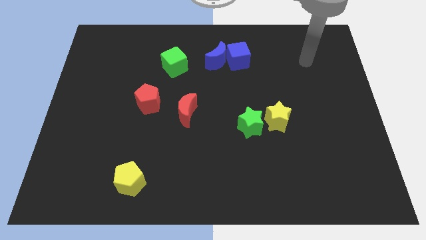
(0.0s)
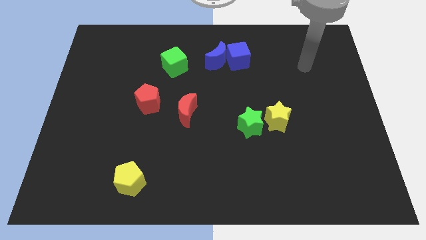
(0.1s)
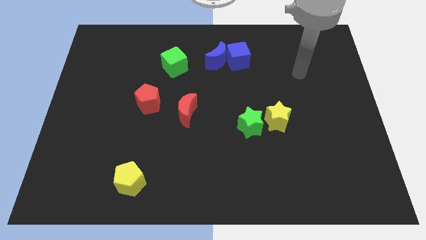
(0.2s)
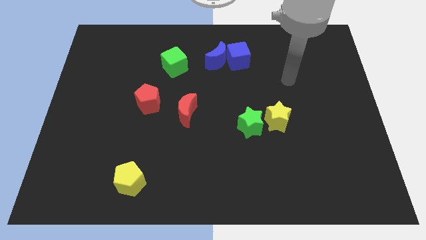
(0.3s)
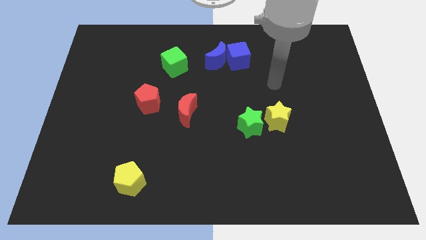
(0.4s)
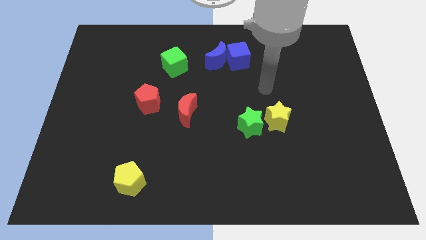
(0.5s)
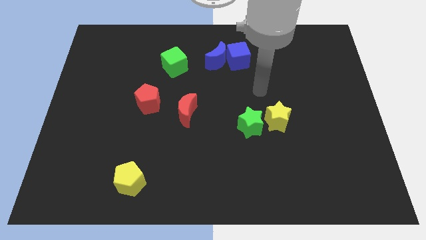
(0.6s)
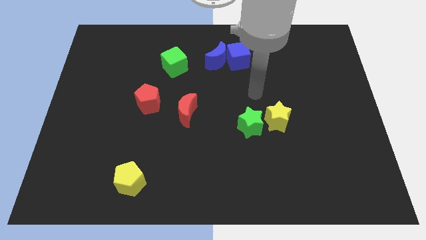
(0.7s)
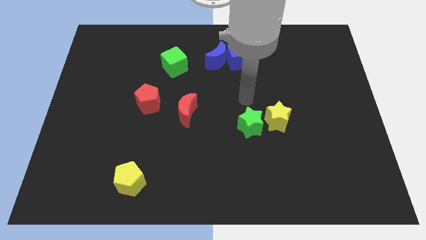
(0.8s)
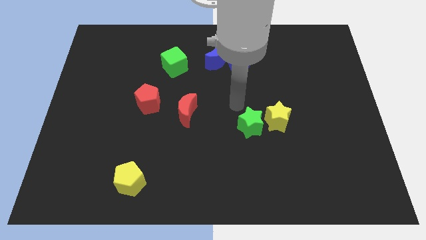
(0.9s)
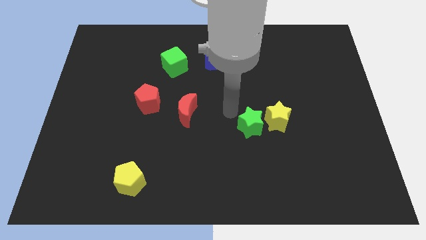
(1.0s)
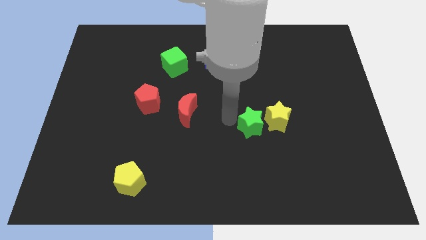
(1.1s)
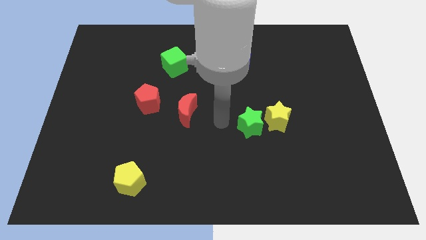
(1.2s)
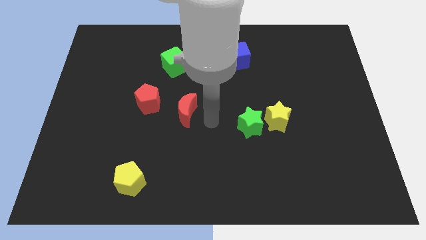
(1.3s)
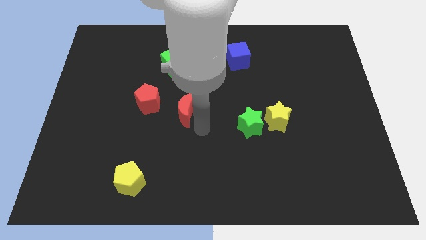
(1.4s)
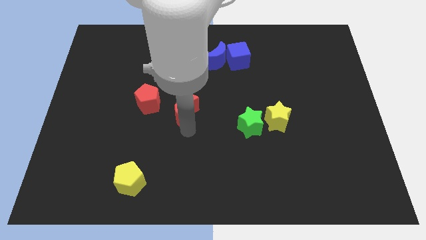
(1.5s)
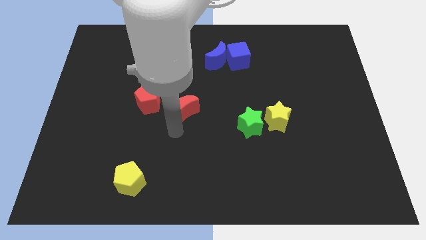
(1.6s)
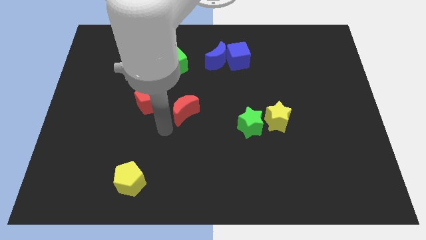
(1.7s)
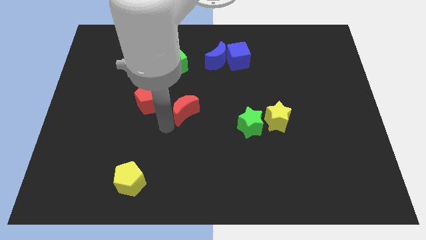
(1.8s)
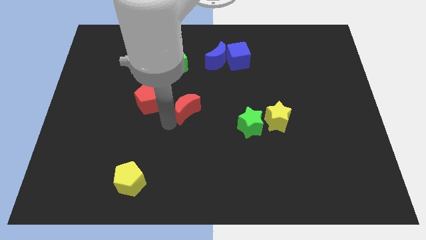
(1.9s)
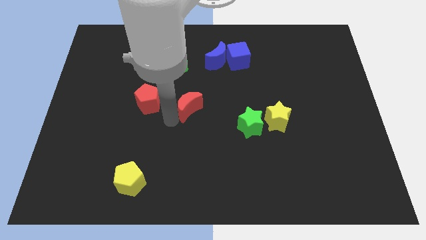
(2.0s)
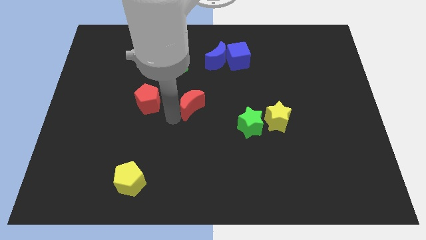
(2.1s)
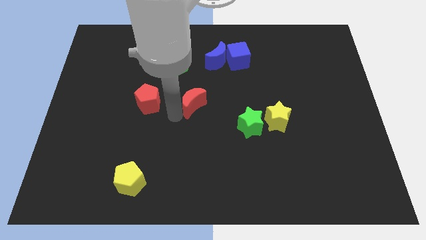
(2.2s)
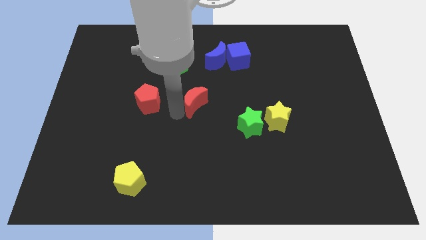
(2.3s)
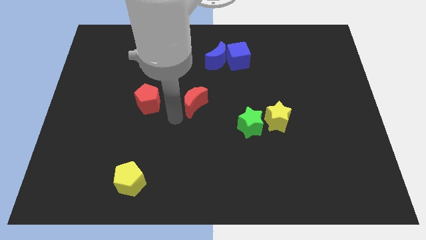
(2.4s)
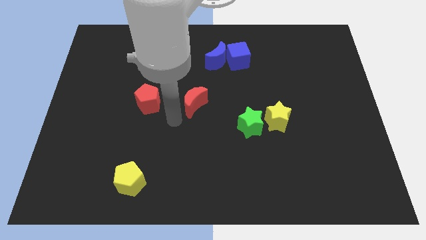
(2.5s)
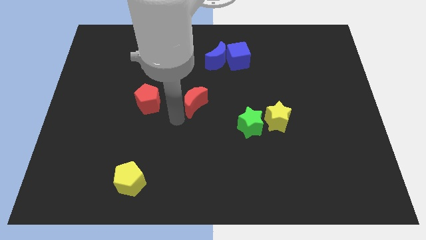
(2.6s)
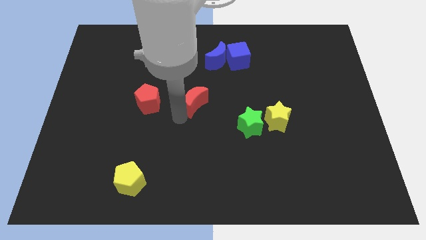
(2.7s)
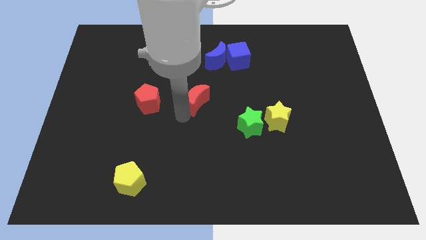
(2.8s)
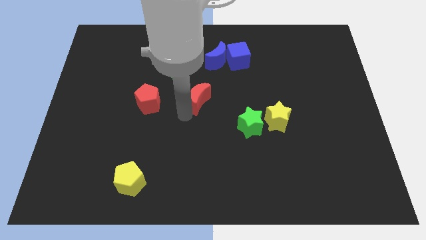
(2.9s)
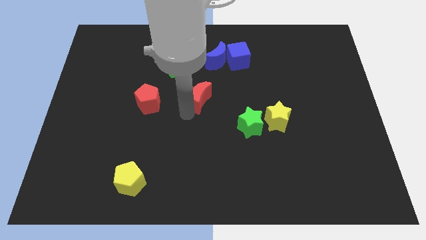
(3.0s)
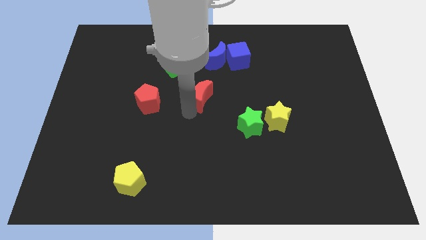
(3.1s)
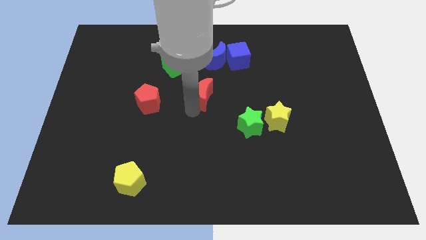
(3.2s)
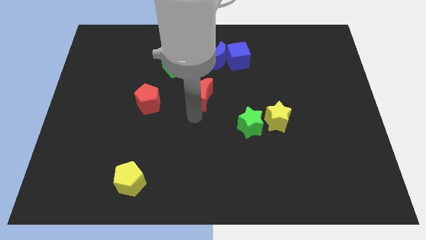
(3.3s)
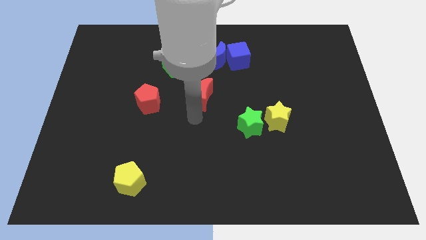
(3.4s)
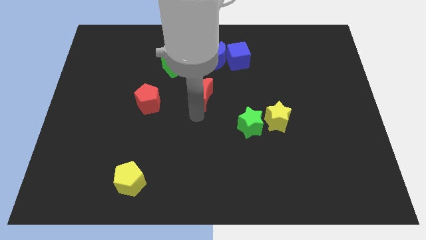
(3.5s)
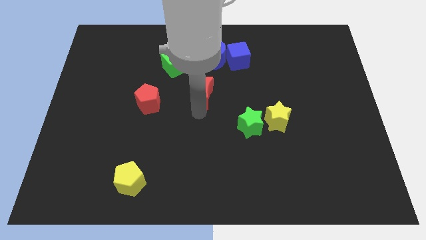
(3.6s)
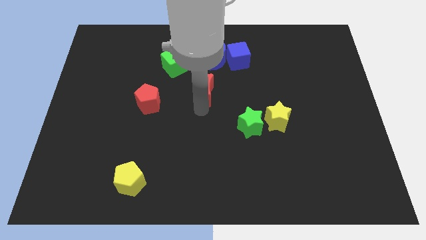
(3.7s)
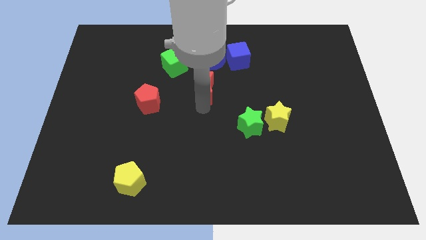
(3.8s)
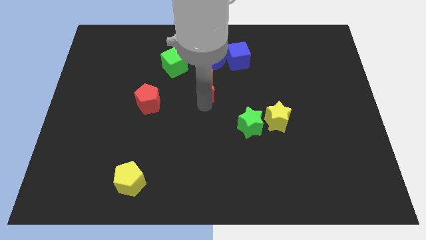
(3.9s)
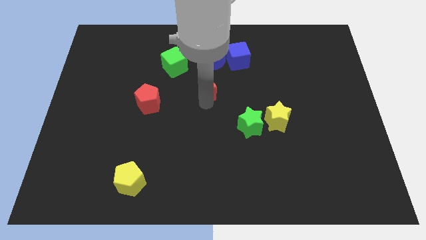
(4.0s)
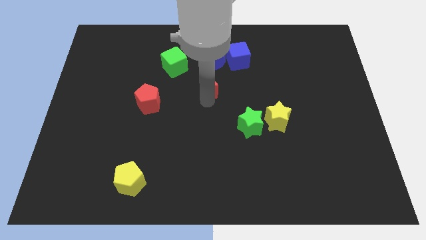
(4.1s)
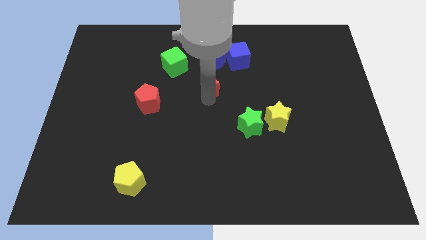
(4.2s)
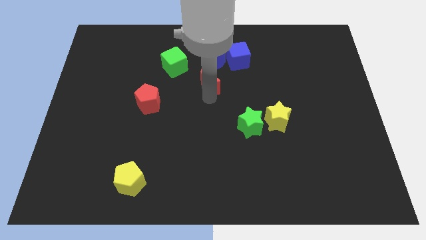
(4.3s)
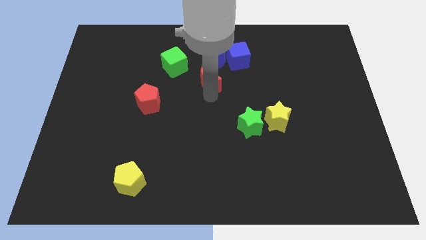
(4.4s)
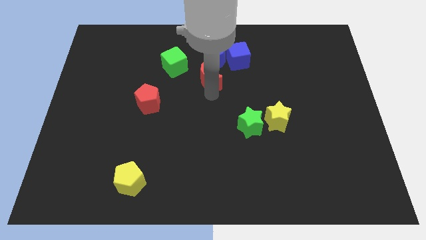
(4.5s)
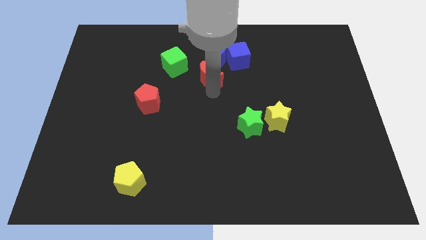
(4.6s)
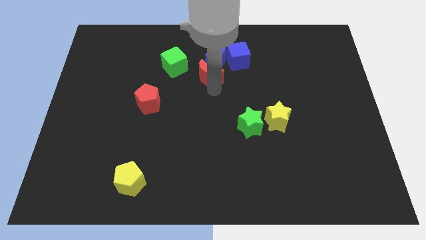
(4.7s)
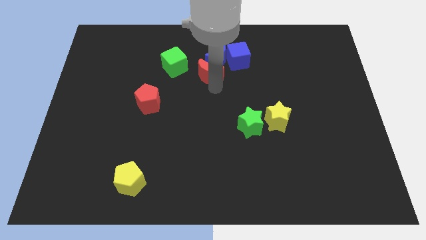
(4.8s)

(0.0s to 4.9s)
push the red moon next to the blue moon

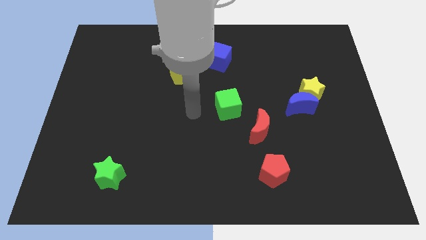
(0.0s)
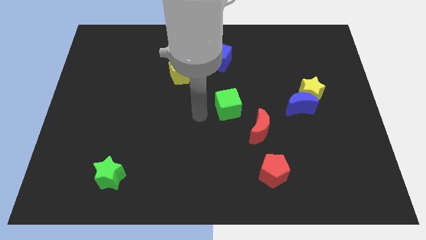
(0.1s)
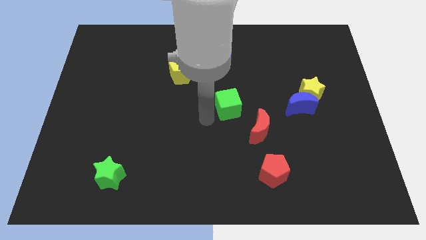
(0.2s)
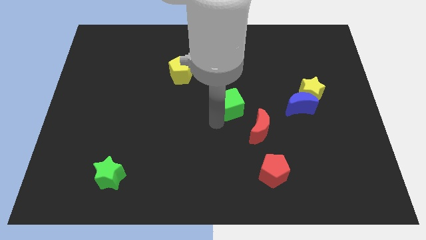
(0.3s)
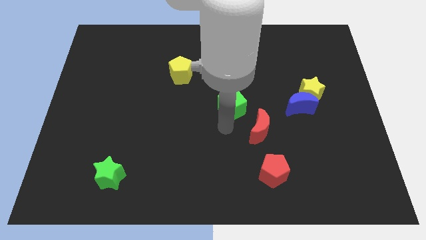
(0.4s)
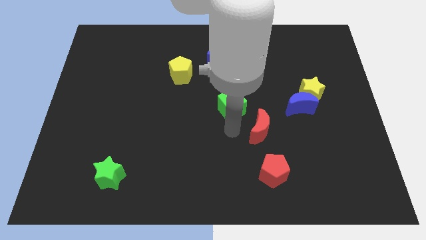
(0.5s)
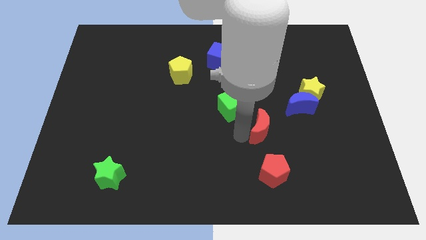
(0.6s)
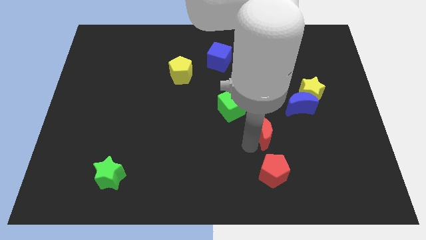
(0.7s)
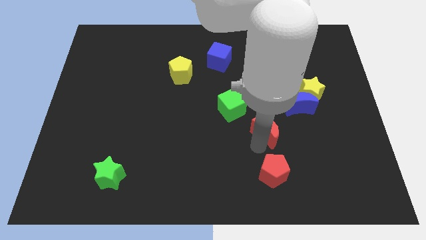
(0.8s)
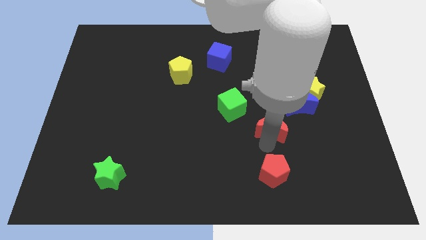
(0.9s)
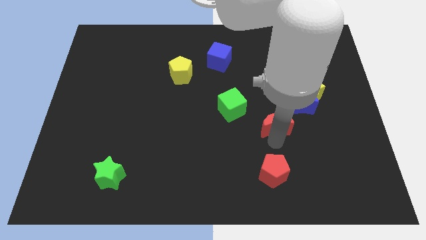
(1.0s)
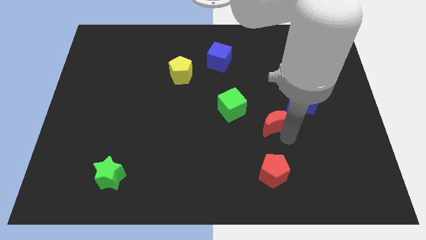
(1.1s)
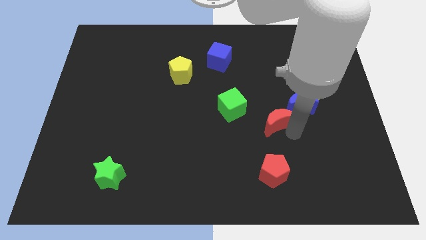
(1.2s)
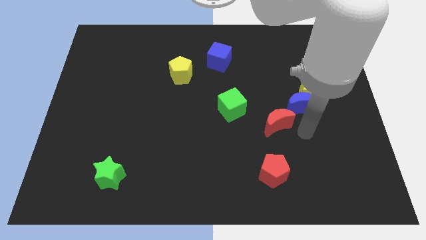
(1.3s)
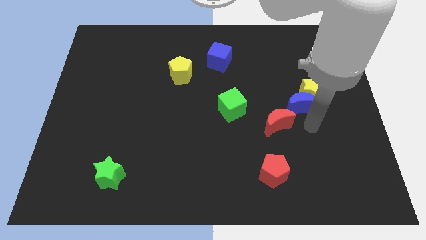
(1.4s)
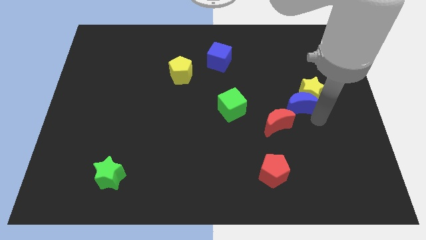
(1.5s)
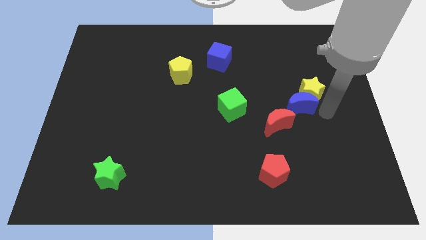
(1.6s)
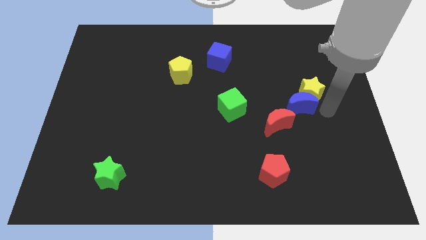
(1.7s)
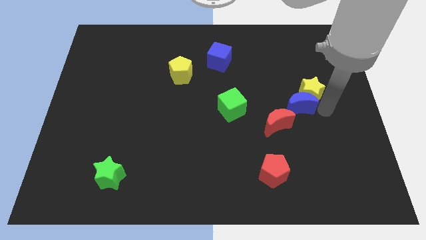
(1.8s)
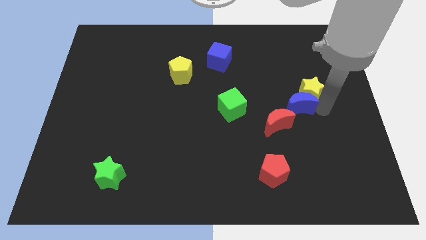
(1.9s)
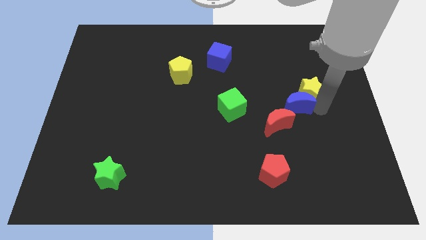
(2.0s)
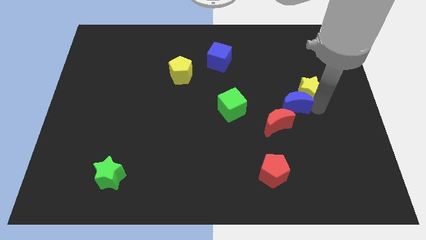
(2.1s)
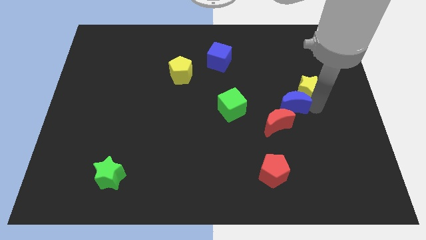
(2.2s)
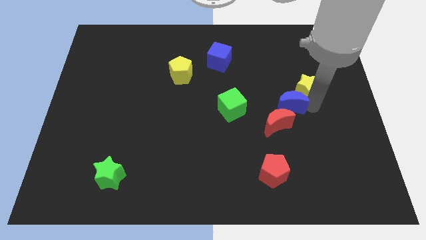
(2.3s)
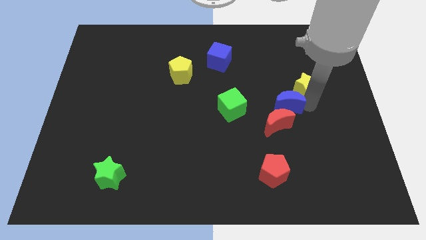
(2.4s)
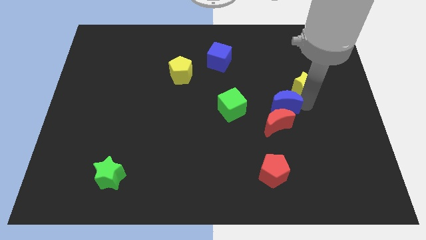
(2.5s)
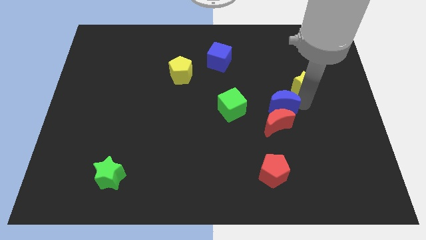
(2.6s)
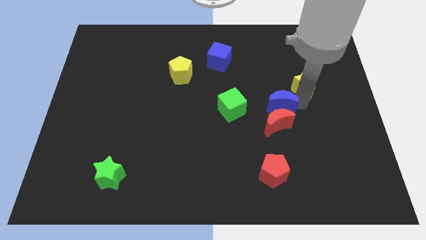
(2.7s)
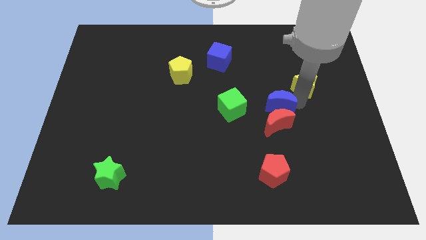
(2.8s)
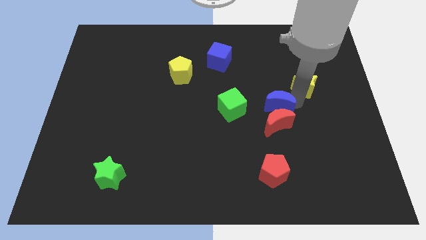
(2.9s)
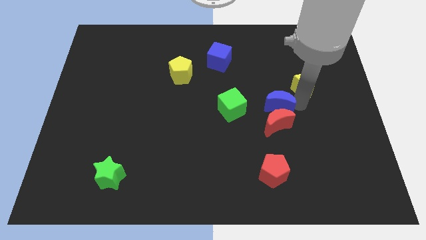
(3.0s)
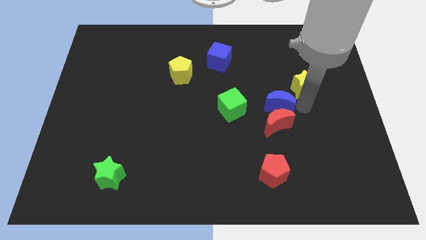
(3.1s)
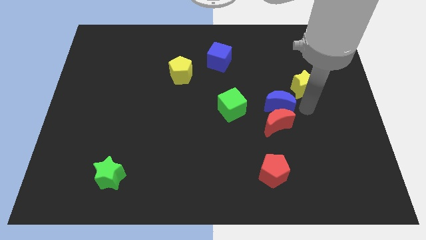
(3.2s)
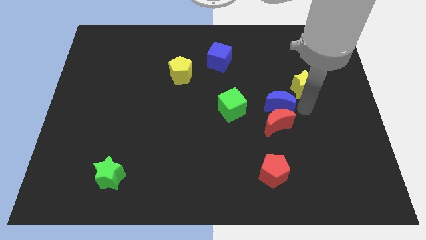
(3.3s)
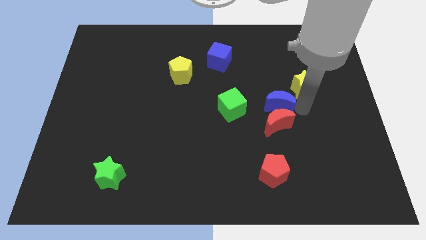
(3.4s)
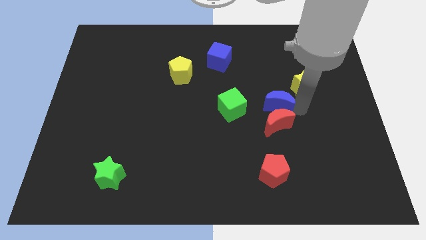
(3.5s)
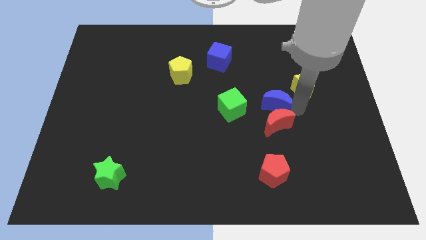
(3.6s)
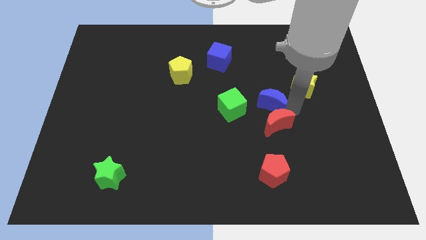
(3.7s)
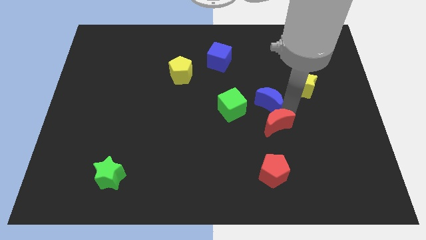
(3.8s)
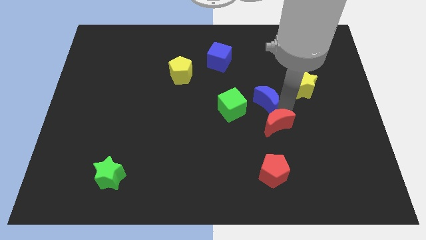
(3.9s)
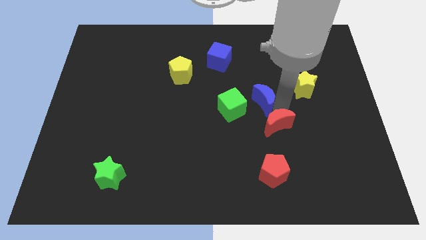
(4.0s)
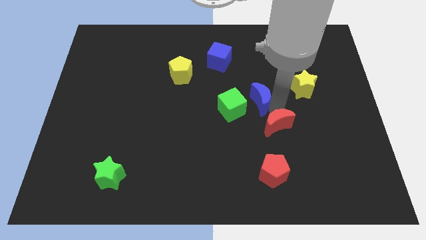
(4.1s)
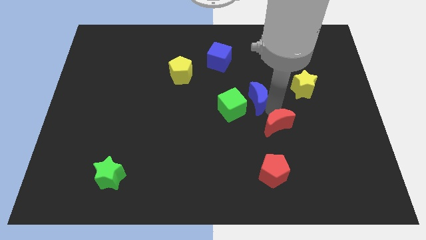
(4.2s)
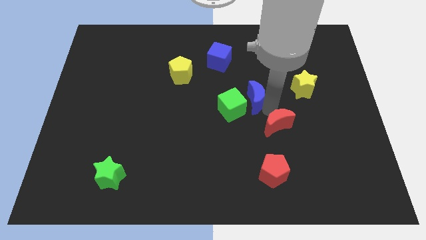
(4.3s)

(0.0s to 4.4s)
move the blue moon close to the green cube
